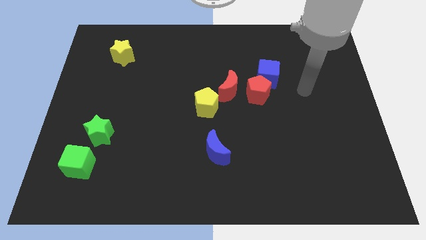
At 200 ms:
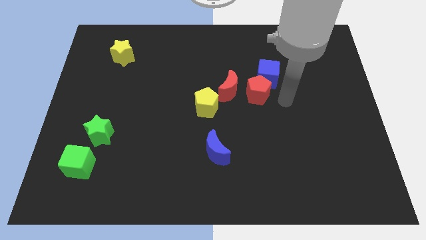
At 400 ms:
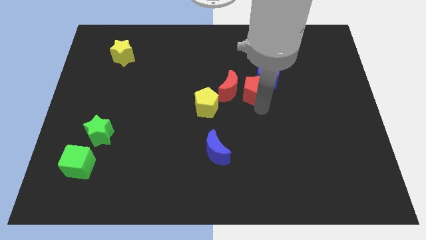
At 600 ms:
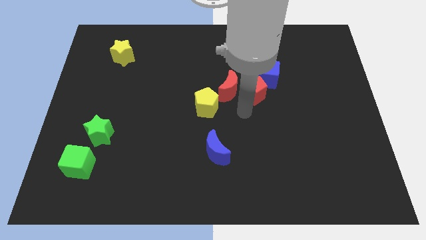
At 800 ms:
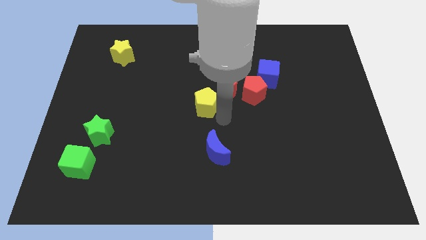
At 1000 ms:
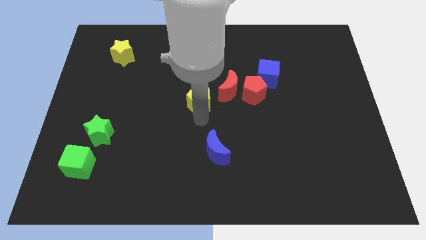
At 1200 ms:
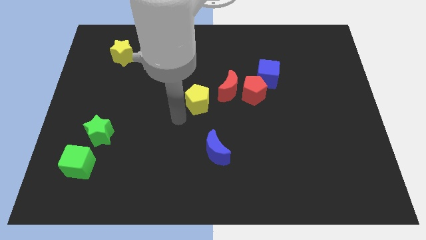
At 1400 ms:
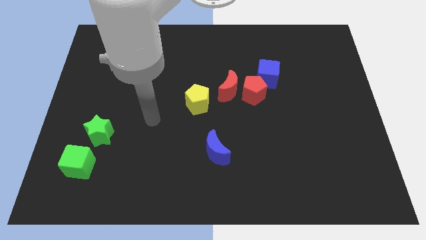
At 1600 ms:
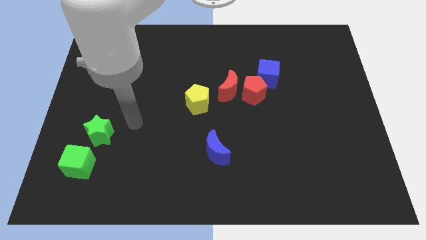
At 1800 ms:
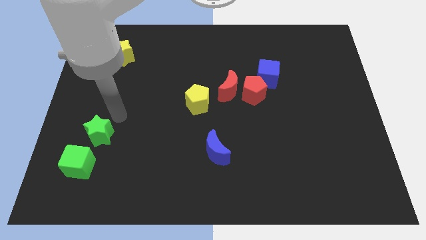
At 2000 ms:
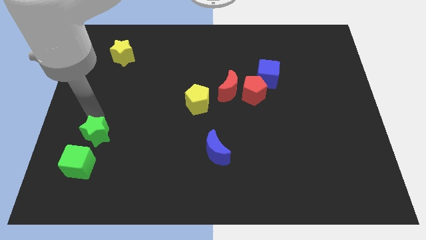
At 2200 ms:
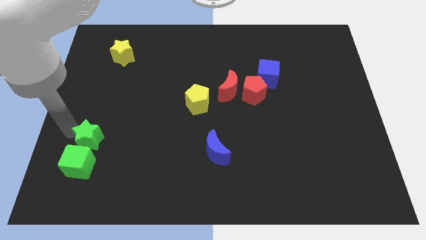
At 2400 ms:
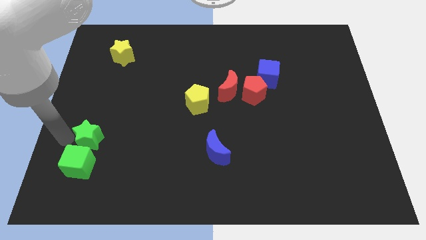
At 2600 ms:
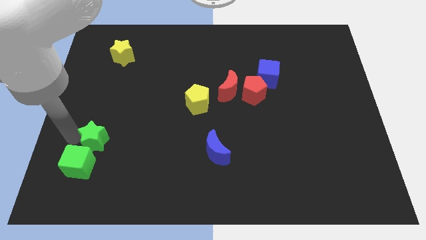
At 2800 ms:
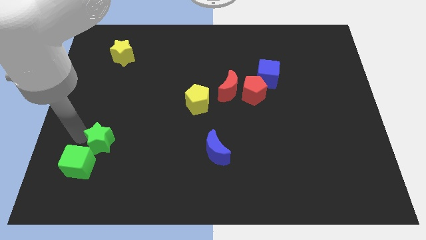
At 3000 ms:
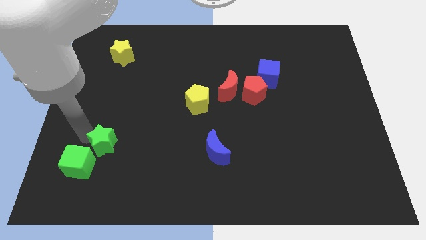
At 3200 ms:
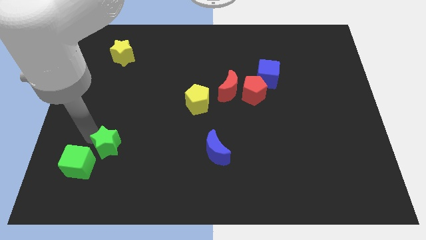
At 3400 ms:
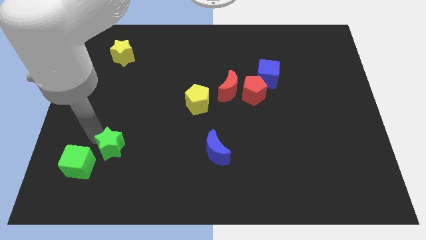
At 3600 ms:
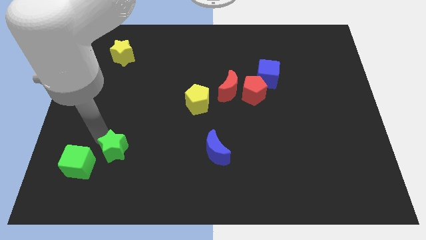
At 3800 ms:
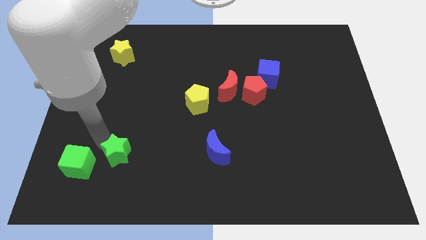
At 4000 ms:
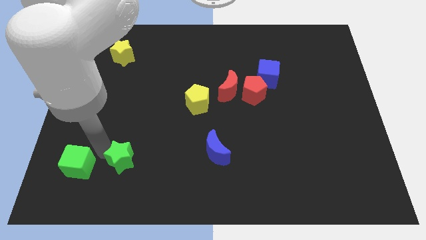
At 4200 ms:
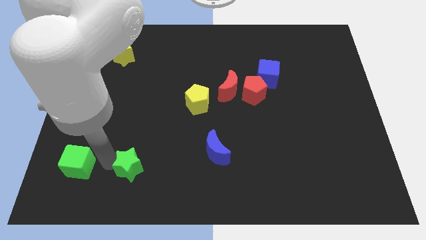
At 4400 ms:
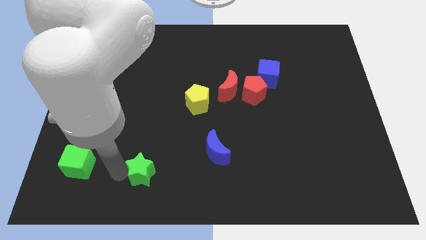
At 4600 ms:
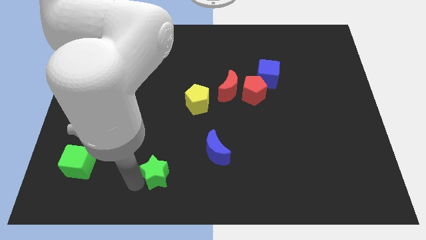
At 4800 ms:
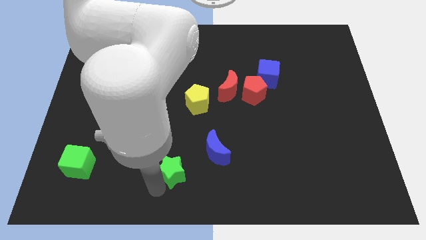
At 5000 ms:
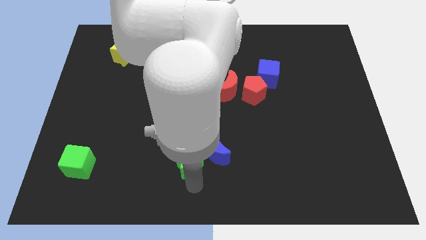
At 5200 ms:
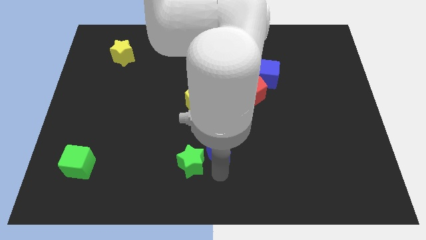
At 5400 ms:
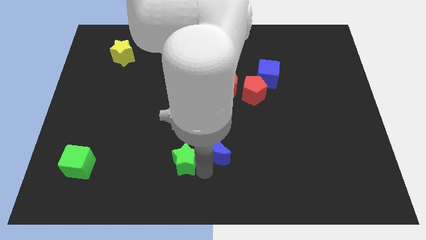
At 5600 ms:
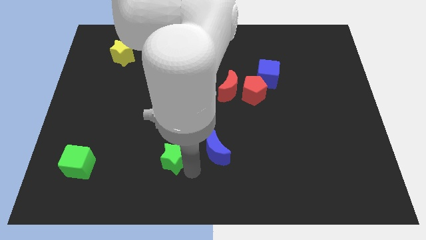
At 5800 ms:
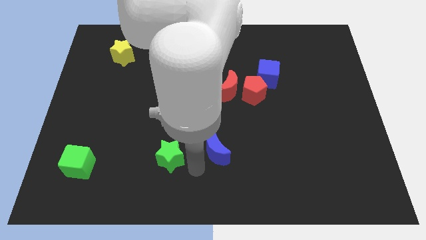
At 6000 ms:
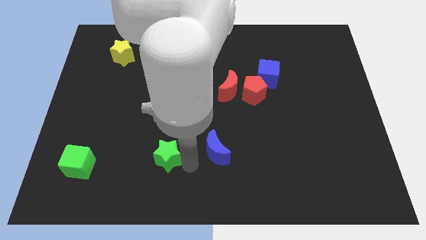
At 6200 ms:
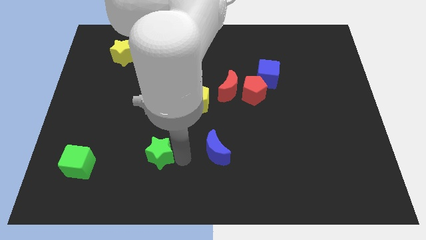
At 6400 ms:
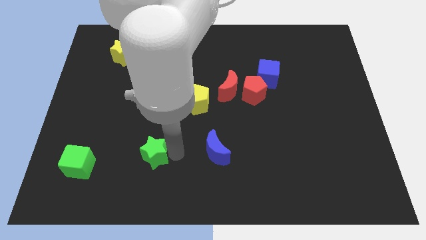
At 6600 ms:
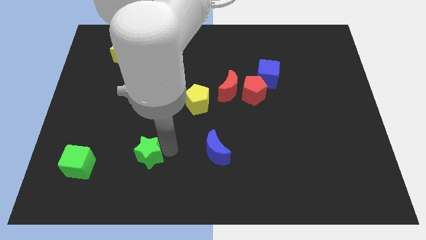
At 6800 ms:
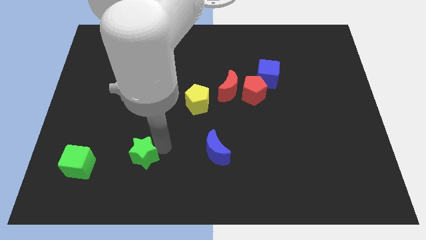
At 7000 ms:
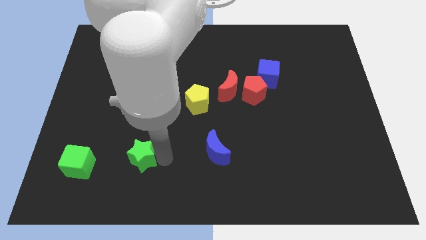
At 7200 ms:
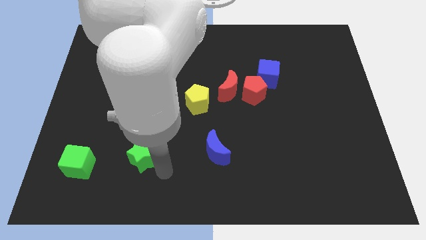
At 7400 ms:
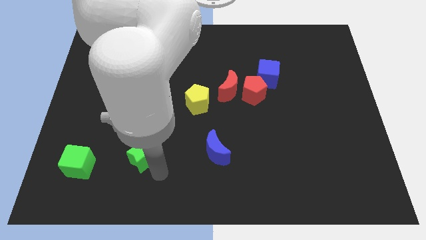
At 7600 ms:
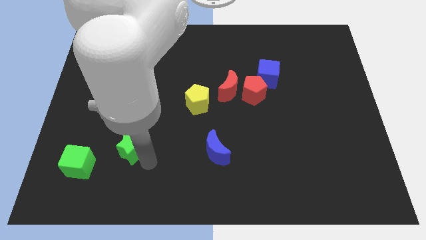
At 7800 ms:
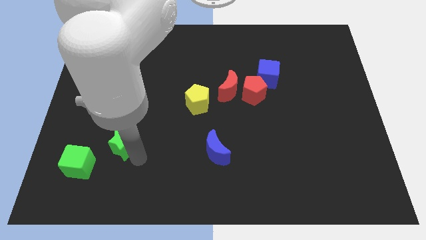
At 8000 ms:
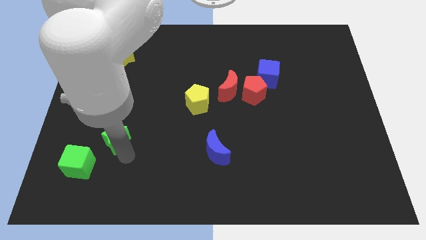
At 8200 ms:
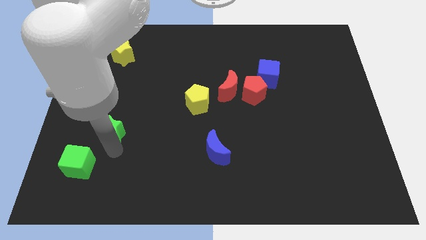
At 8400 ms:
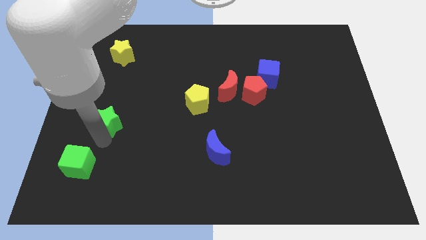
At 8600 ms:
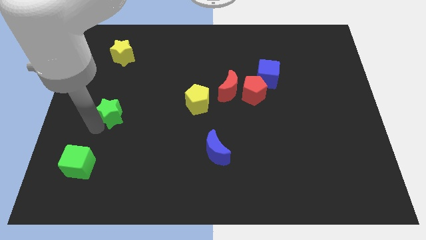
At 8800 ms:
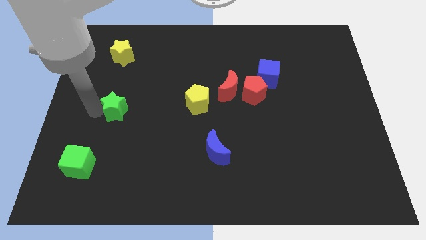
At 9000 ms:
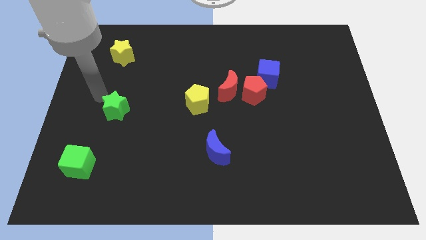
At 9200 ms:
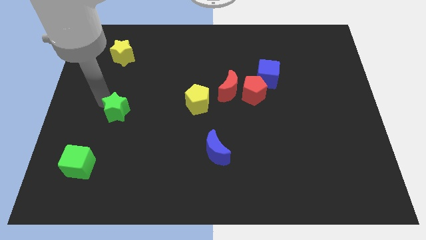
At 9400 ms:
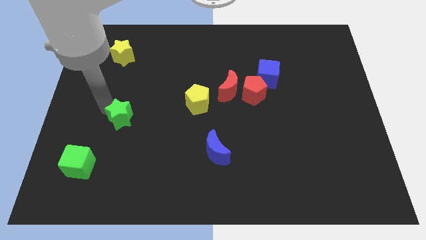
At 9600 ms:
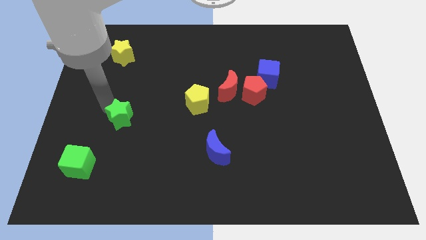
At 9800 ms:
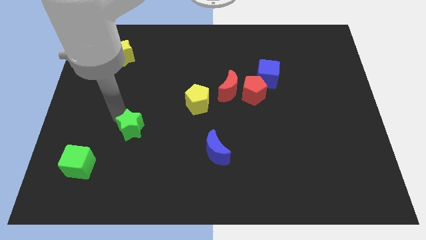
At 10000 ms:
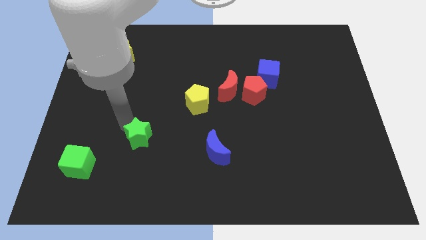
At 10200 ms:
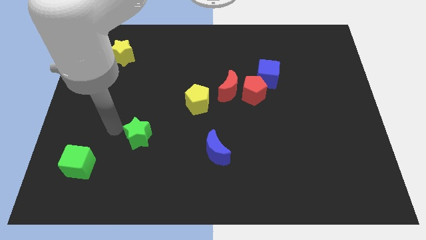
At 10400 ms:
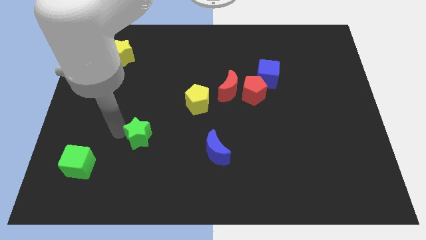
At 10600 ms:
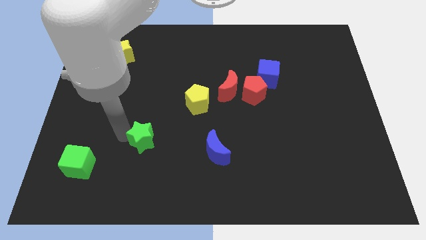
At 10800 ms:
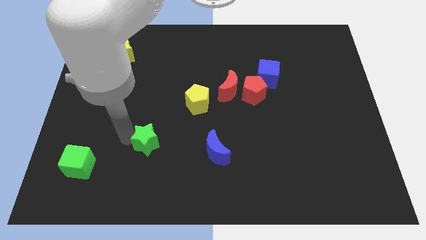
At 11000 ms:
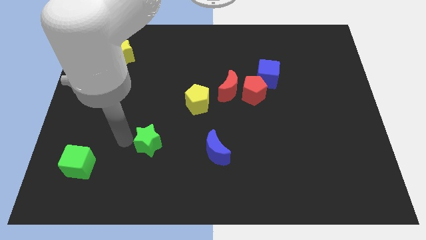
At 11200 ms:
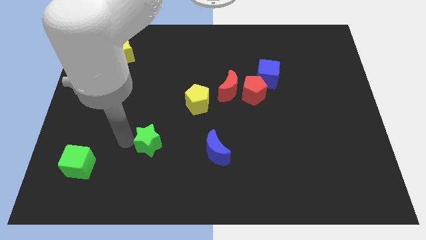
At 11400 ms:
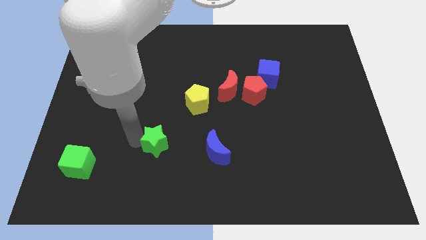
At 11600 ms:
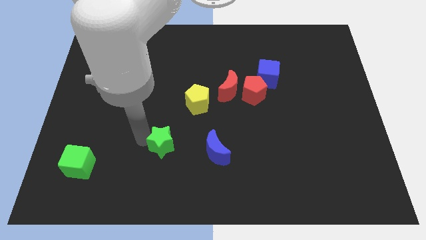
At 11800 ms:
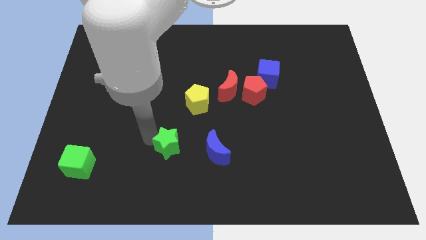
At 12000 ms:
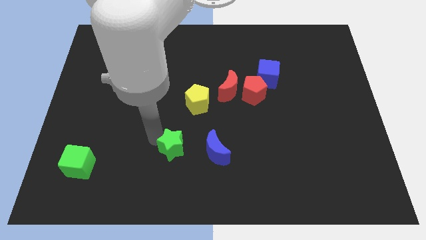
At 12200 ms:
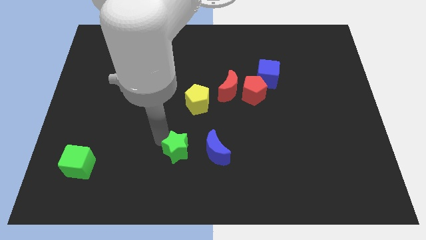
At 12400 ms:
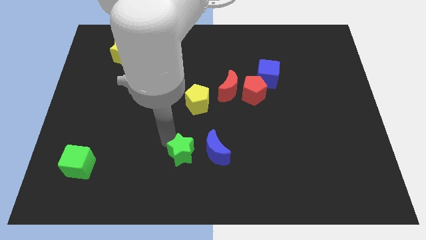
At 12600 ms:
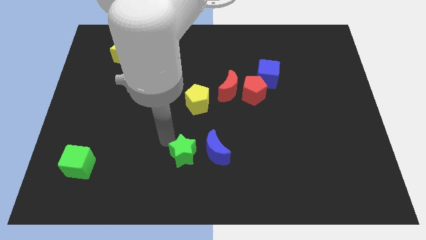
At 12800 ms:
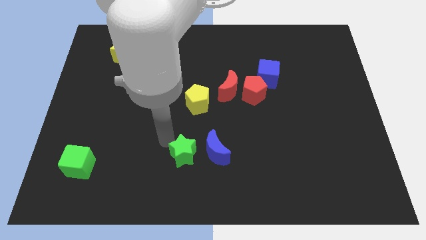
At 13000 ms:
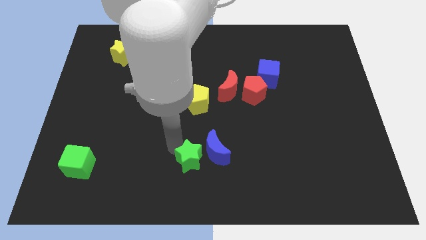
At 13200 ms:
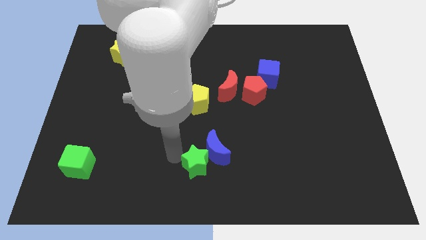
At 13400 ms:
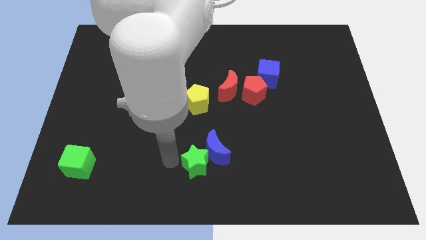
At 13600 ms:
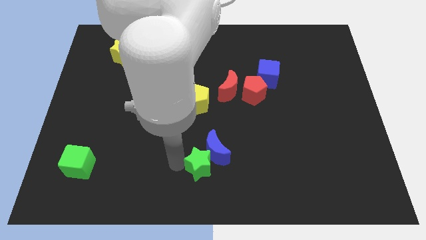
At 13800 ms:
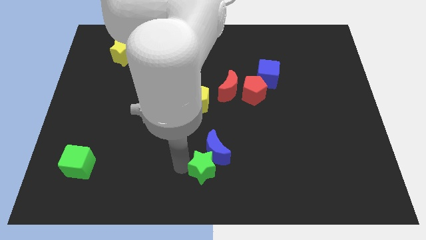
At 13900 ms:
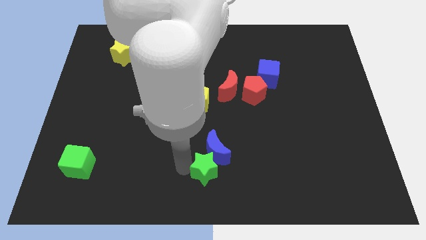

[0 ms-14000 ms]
push the green star diagonally down and to the right of the blue moon
